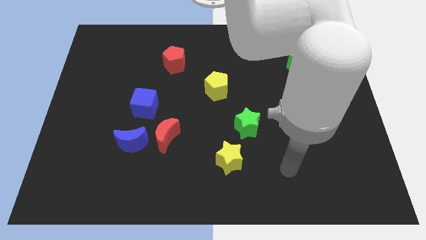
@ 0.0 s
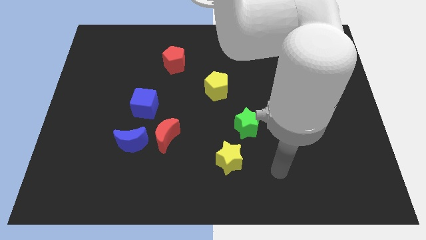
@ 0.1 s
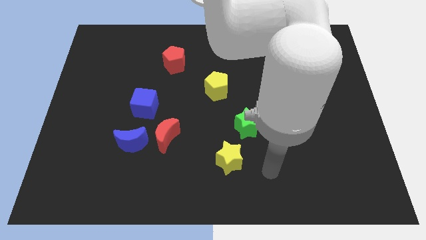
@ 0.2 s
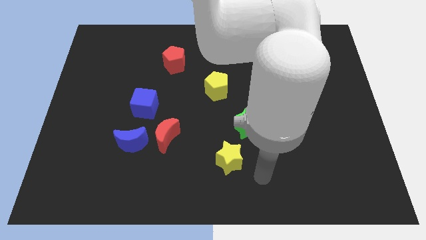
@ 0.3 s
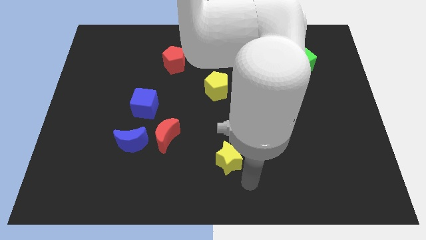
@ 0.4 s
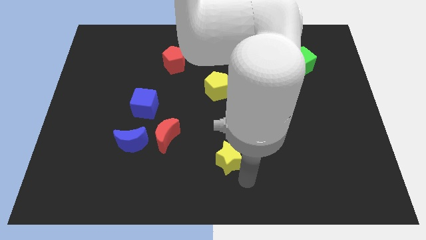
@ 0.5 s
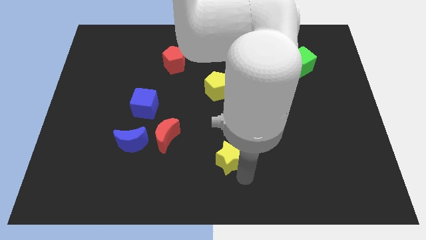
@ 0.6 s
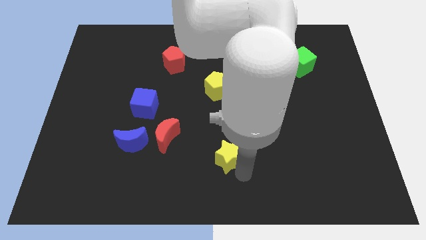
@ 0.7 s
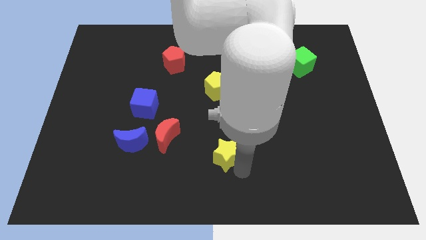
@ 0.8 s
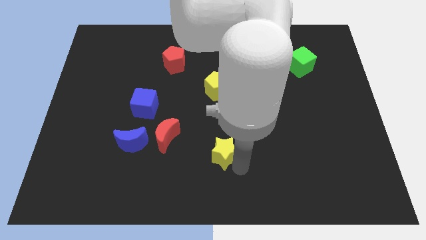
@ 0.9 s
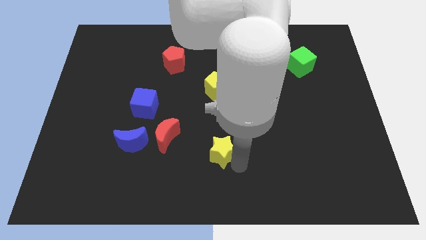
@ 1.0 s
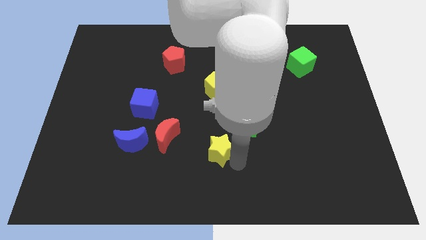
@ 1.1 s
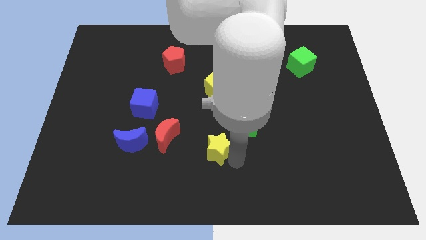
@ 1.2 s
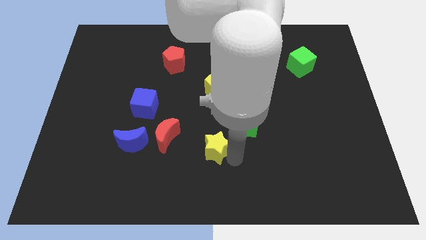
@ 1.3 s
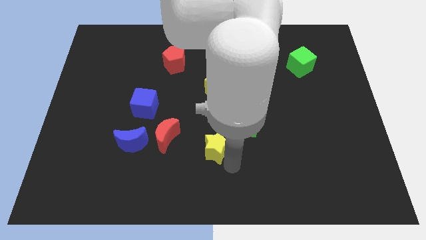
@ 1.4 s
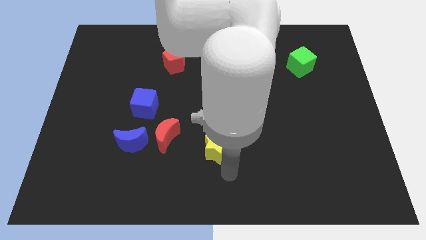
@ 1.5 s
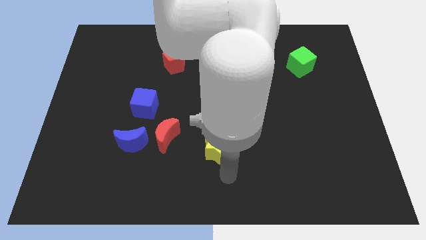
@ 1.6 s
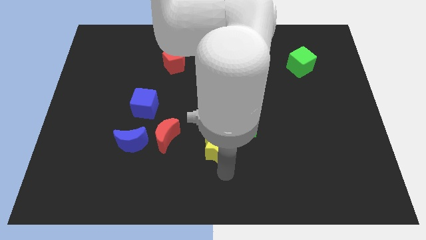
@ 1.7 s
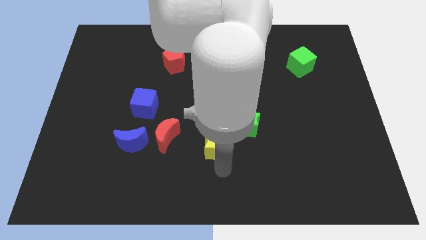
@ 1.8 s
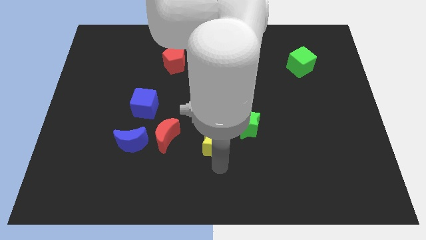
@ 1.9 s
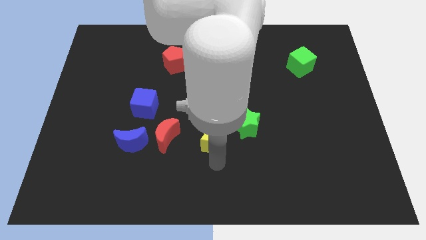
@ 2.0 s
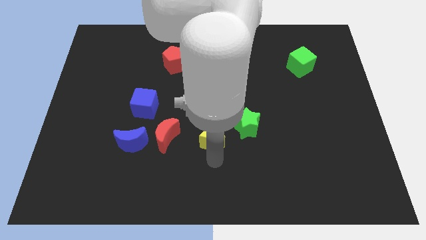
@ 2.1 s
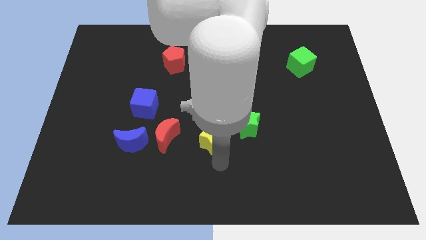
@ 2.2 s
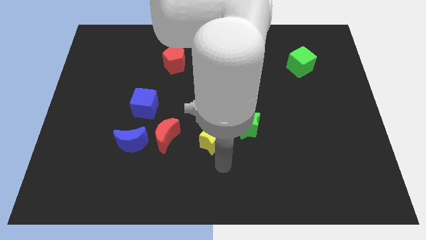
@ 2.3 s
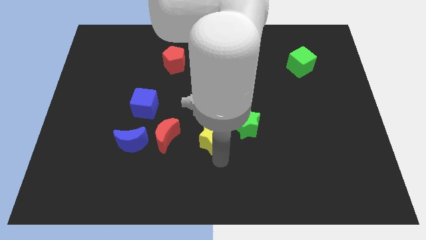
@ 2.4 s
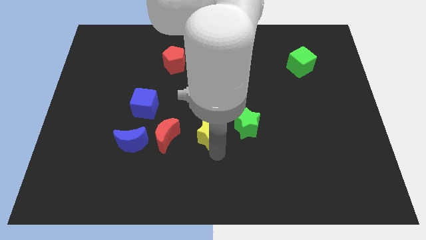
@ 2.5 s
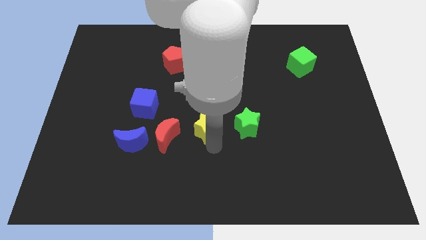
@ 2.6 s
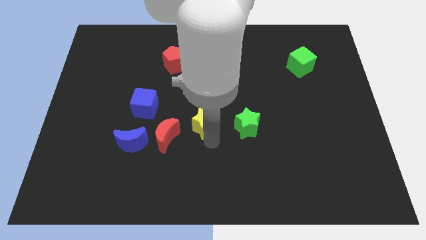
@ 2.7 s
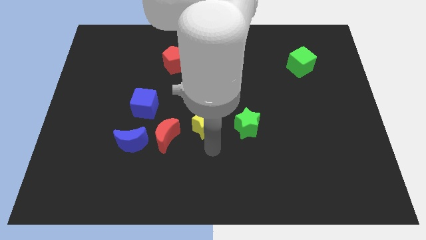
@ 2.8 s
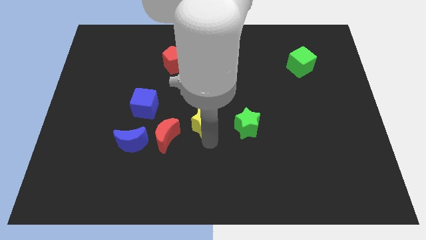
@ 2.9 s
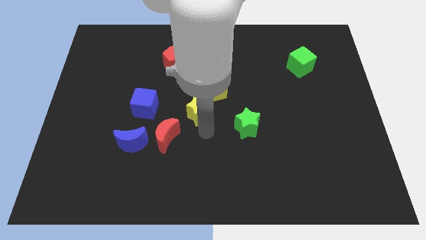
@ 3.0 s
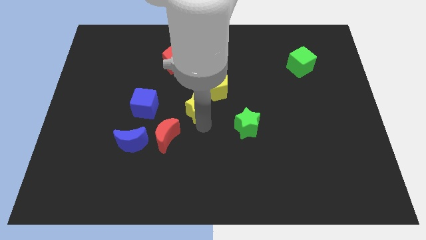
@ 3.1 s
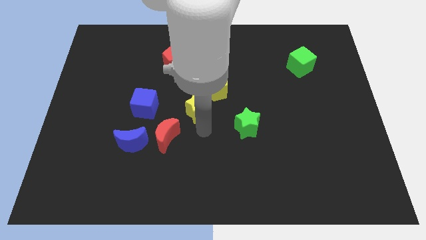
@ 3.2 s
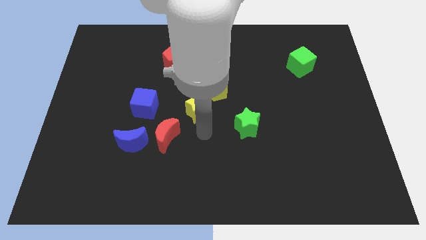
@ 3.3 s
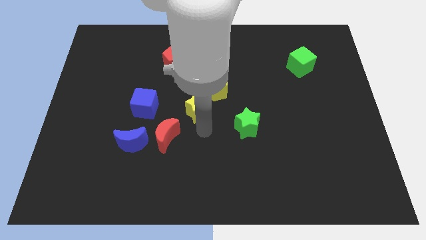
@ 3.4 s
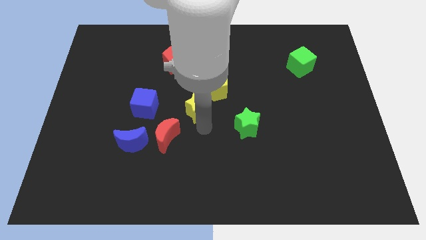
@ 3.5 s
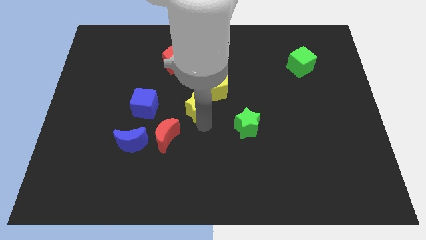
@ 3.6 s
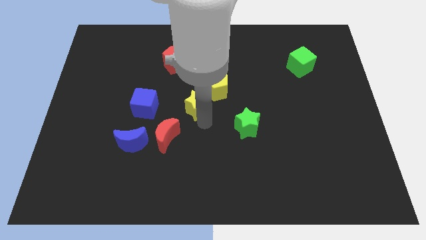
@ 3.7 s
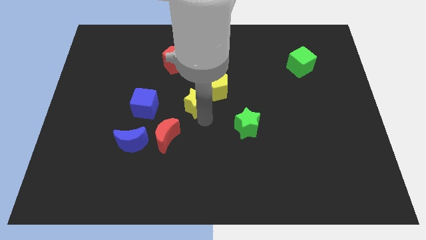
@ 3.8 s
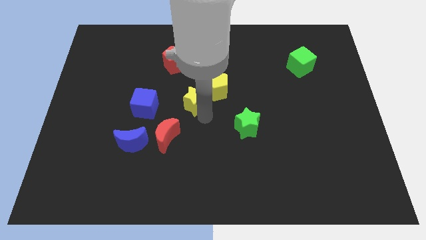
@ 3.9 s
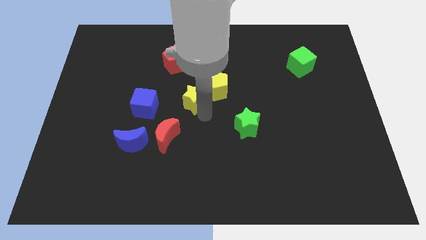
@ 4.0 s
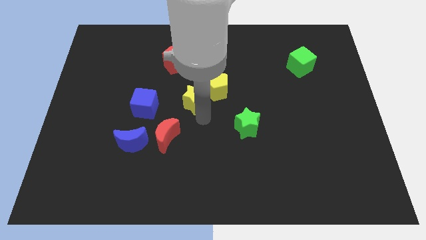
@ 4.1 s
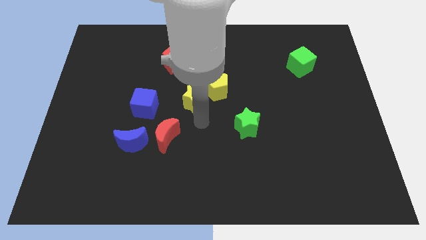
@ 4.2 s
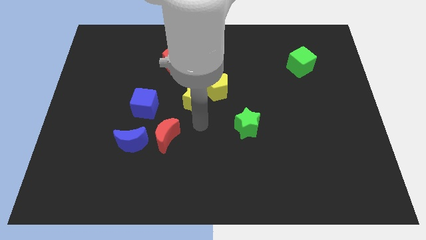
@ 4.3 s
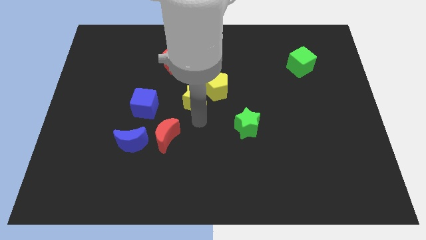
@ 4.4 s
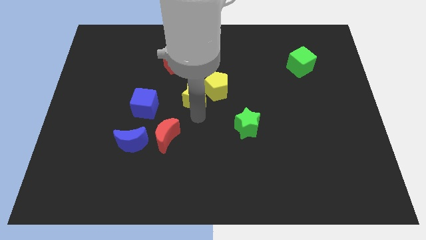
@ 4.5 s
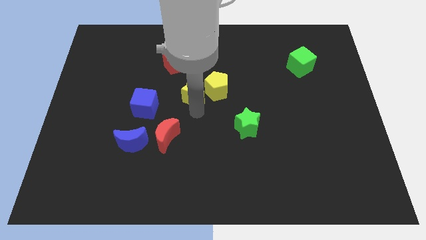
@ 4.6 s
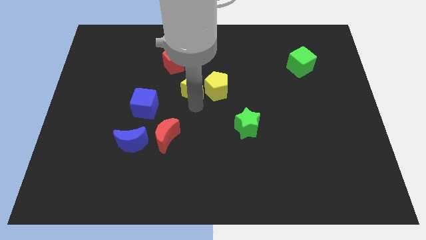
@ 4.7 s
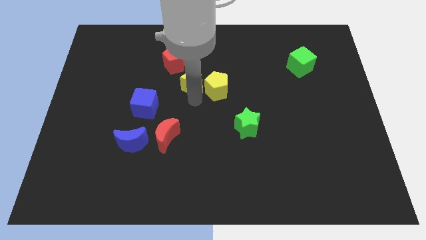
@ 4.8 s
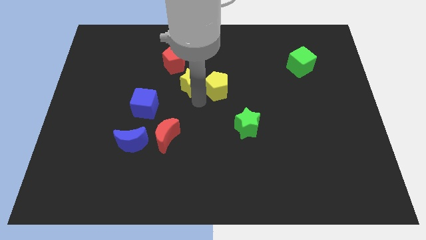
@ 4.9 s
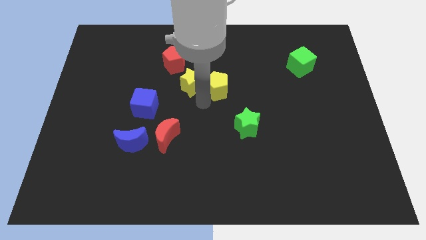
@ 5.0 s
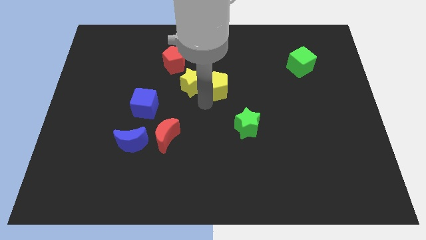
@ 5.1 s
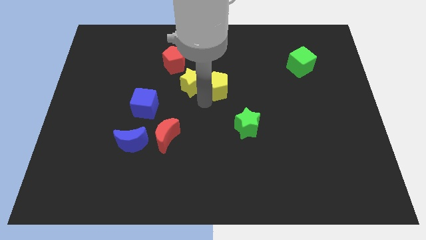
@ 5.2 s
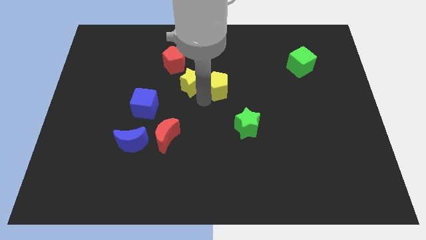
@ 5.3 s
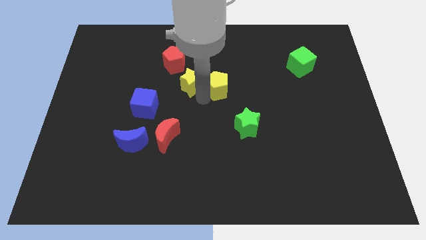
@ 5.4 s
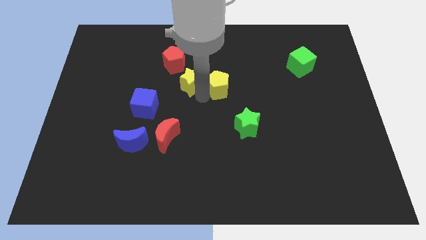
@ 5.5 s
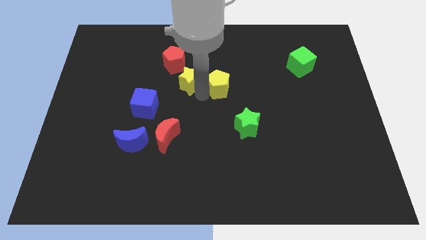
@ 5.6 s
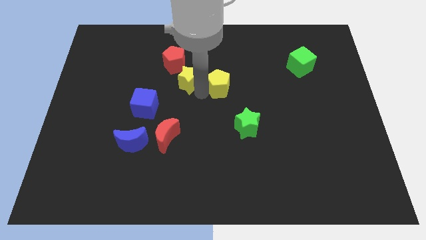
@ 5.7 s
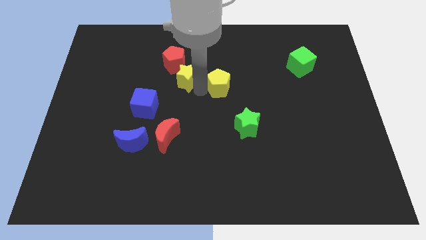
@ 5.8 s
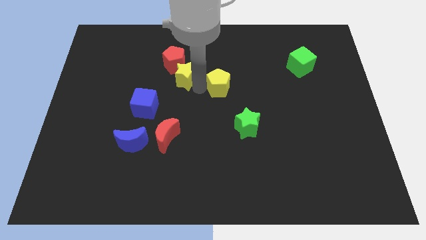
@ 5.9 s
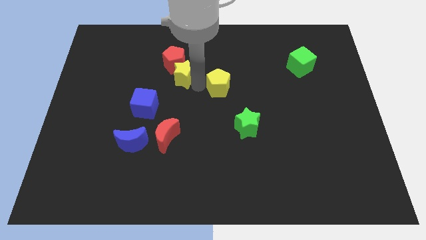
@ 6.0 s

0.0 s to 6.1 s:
move the yellow star towards the red pentagon
